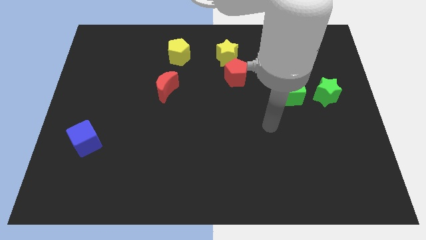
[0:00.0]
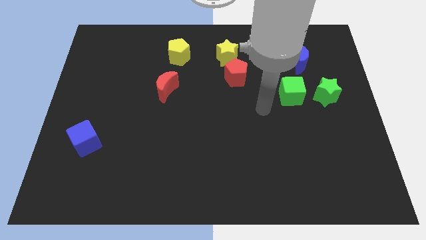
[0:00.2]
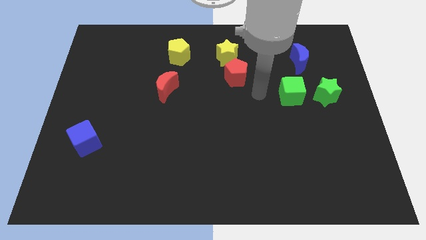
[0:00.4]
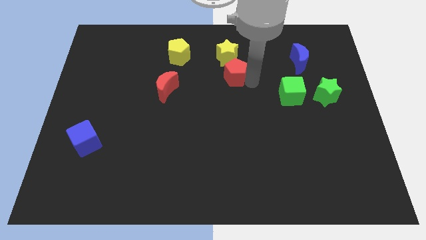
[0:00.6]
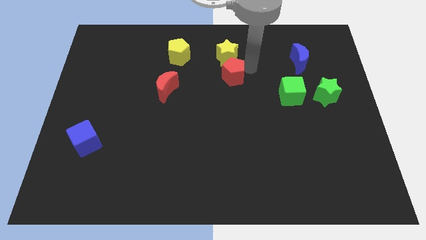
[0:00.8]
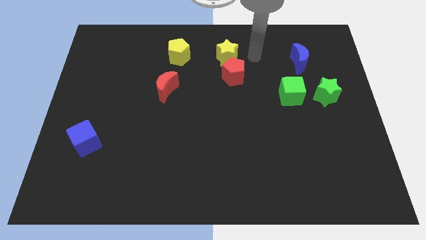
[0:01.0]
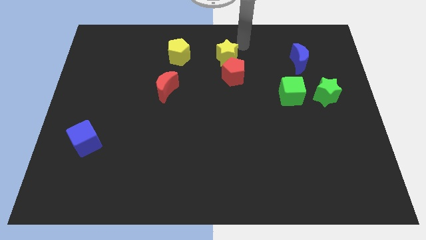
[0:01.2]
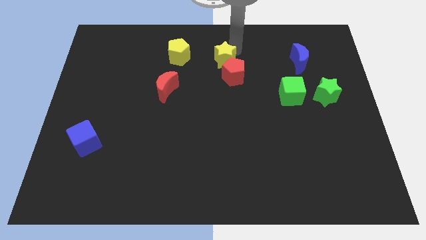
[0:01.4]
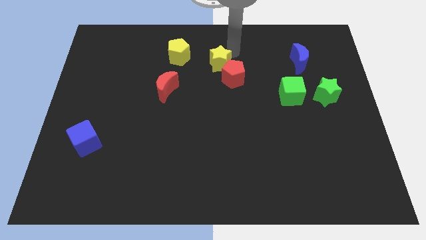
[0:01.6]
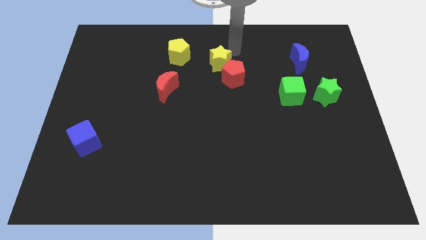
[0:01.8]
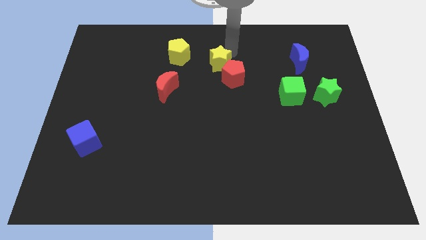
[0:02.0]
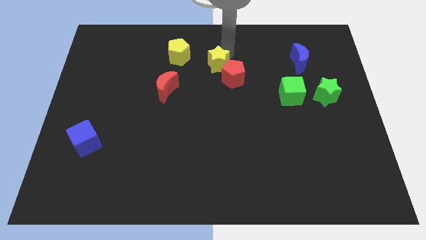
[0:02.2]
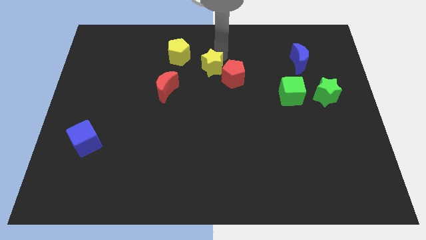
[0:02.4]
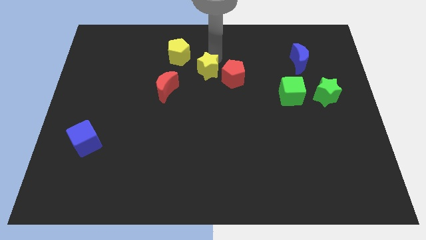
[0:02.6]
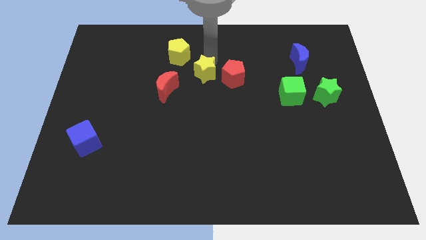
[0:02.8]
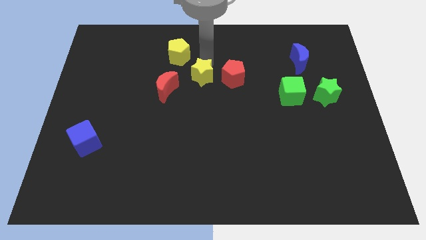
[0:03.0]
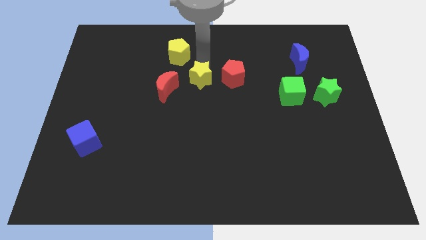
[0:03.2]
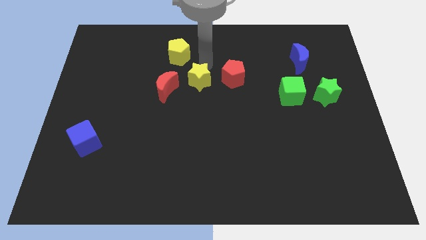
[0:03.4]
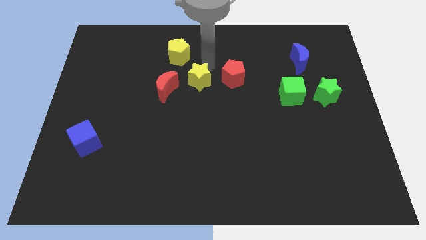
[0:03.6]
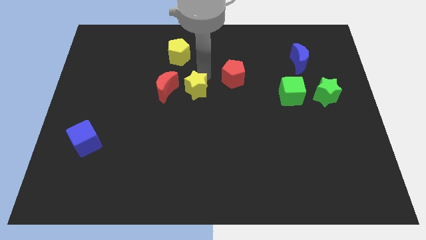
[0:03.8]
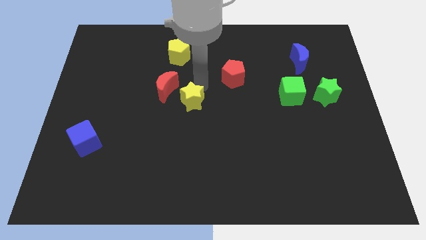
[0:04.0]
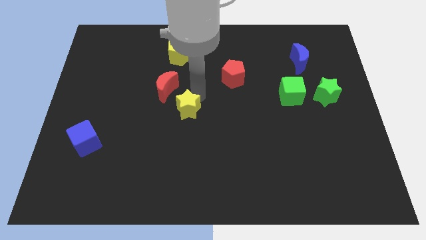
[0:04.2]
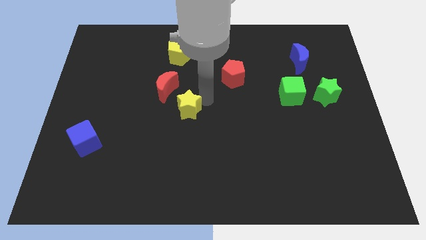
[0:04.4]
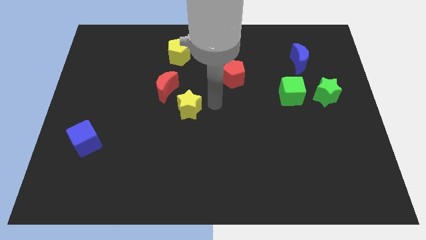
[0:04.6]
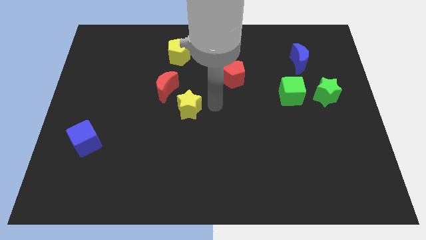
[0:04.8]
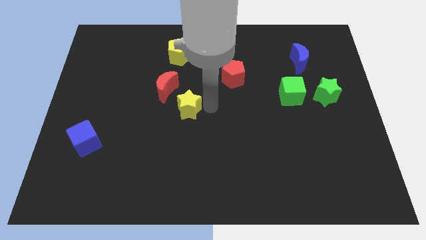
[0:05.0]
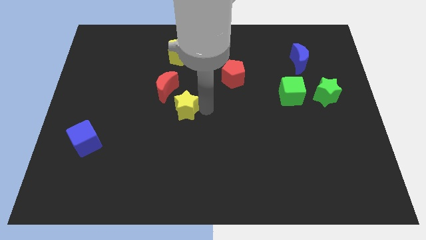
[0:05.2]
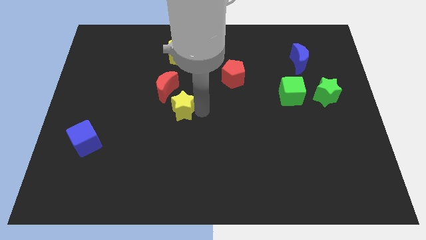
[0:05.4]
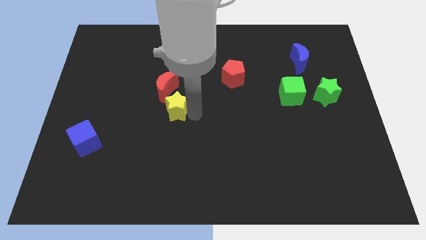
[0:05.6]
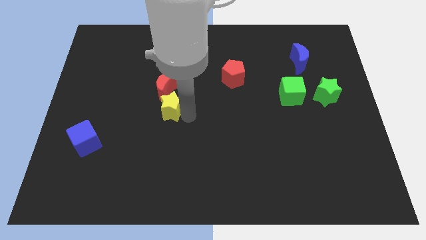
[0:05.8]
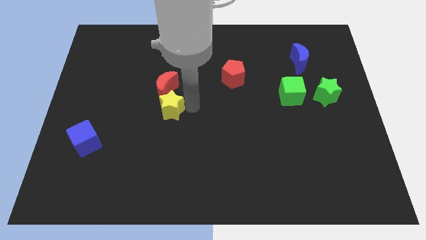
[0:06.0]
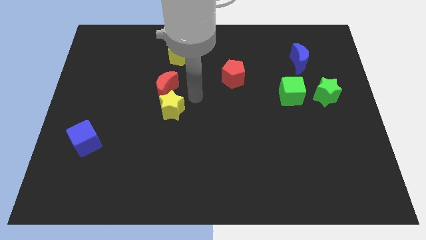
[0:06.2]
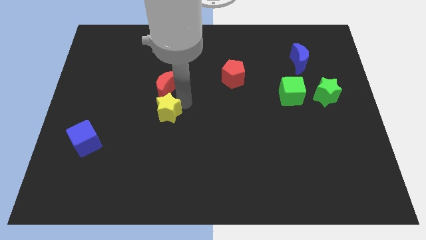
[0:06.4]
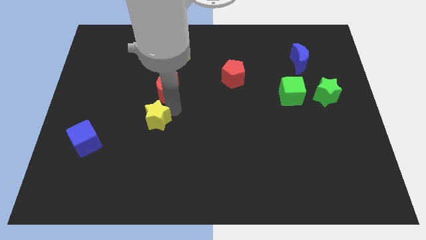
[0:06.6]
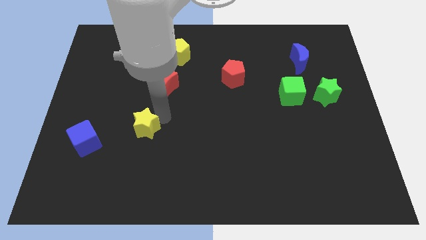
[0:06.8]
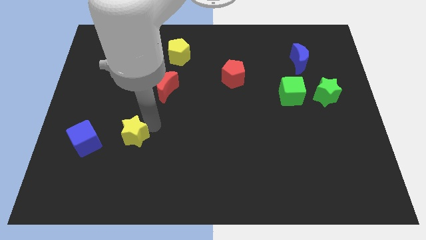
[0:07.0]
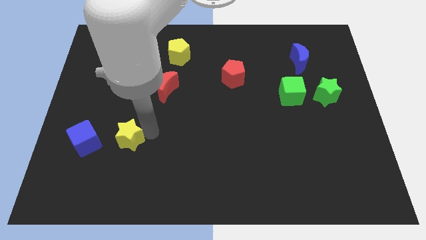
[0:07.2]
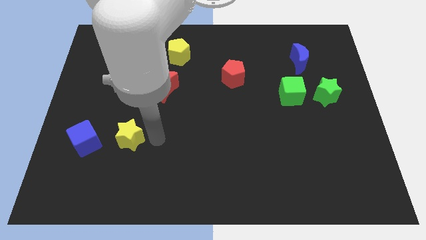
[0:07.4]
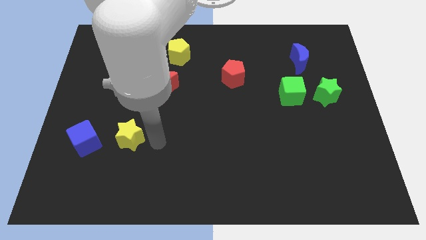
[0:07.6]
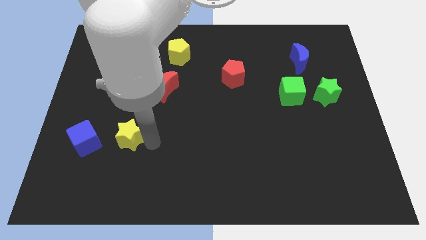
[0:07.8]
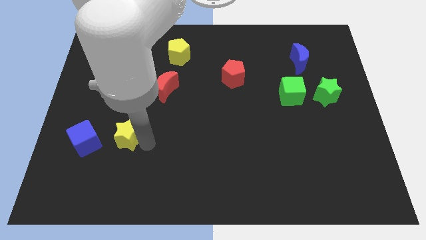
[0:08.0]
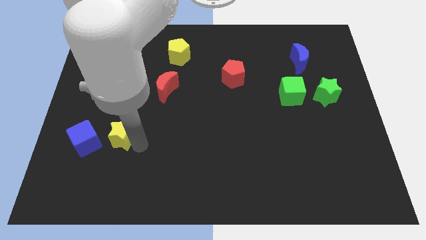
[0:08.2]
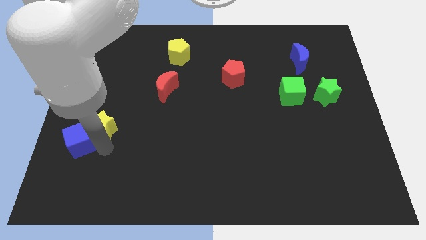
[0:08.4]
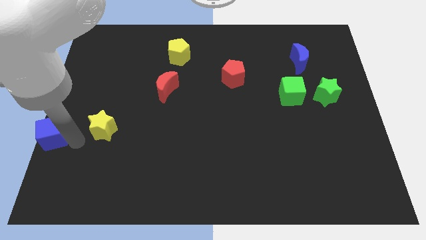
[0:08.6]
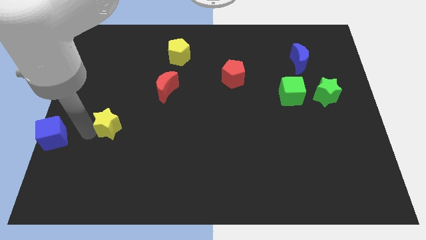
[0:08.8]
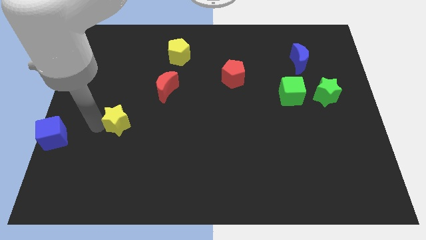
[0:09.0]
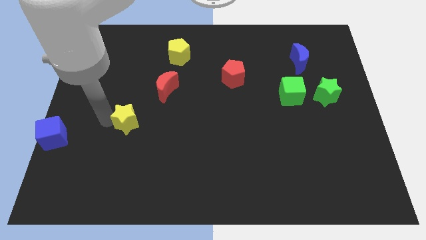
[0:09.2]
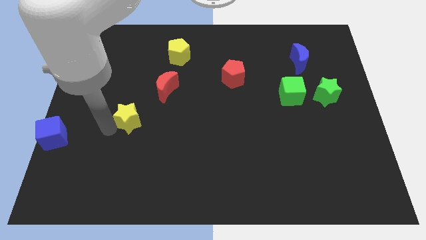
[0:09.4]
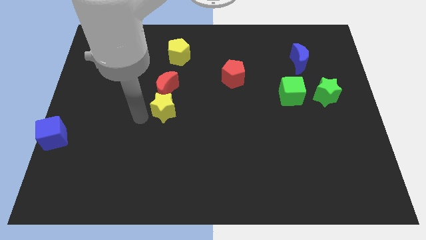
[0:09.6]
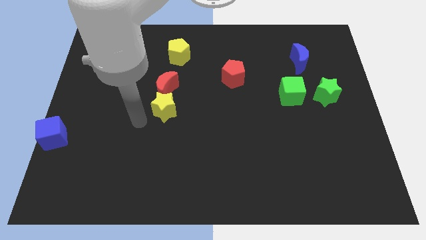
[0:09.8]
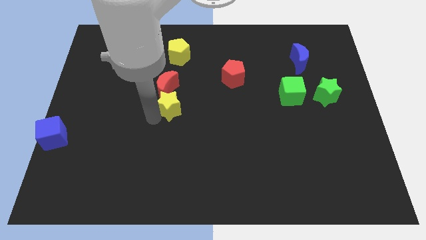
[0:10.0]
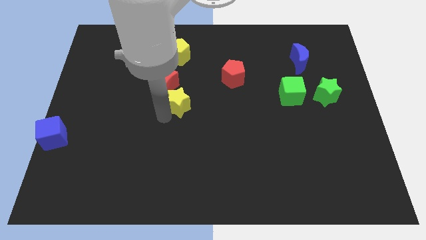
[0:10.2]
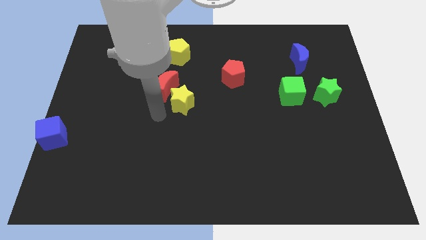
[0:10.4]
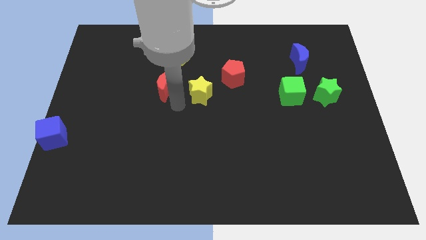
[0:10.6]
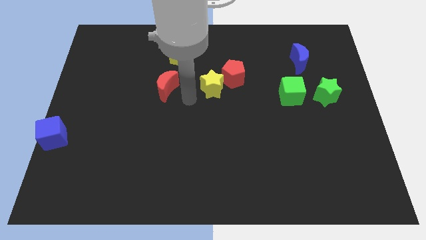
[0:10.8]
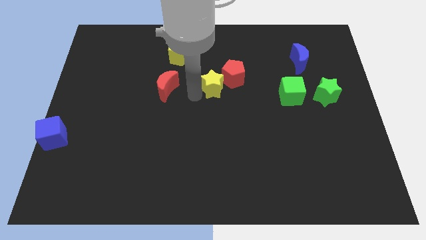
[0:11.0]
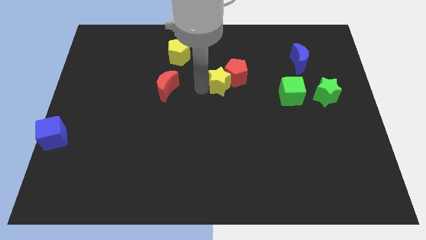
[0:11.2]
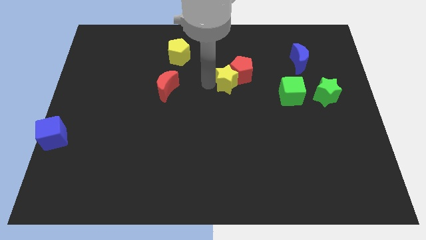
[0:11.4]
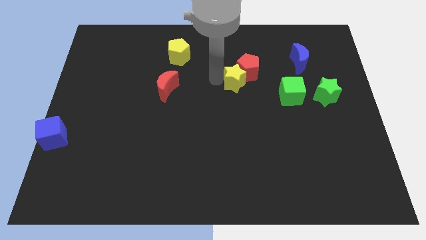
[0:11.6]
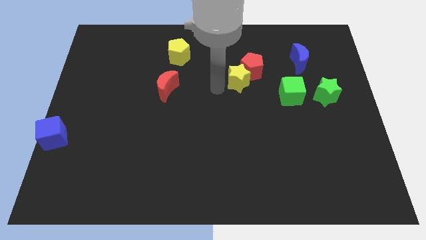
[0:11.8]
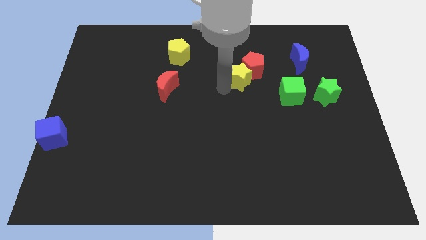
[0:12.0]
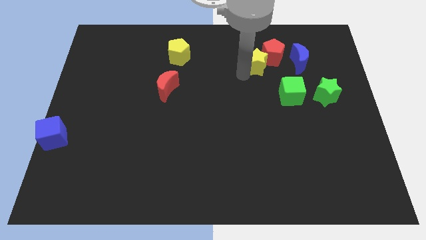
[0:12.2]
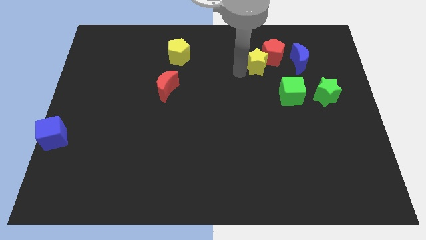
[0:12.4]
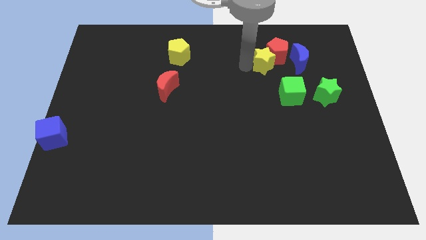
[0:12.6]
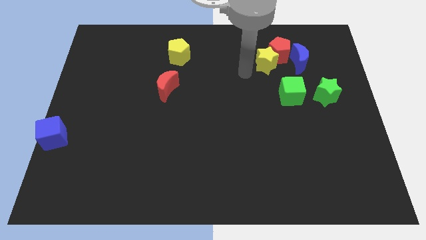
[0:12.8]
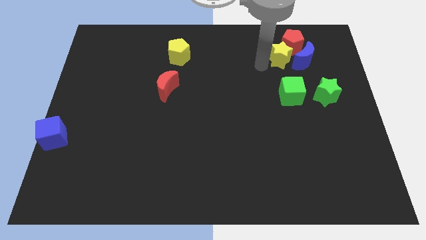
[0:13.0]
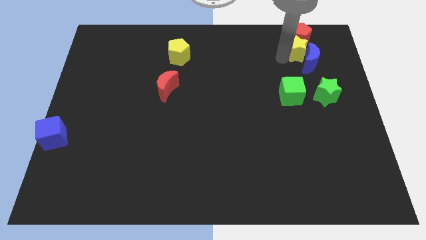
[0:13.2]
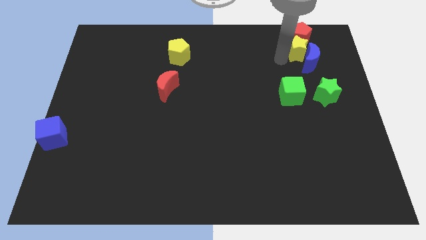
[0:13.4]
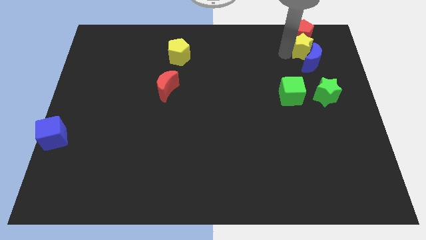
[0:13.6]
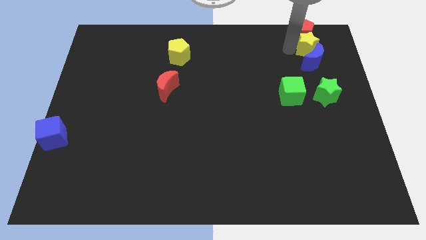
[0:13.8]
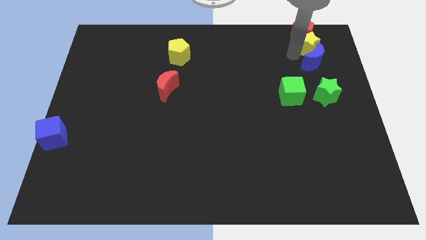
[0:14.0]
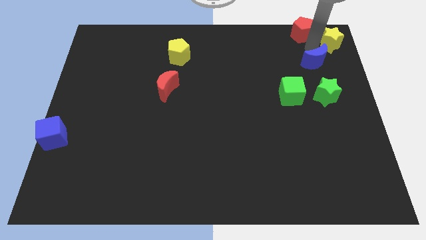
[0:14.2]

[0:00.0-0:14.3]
move the yellow star to the upper right corner
